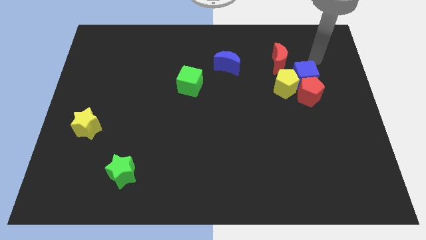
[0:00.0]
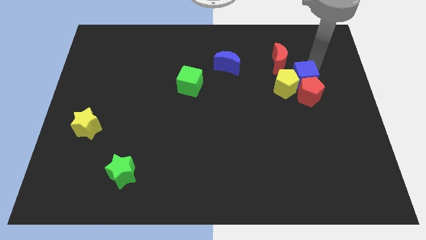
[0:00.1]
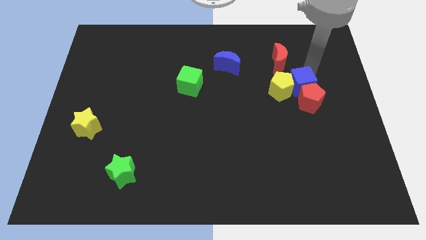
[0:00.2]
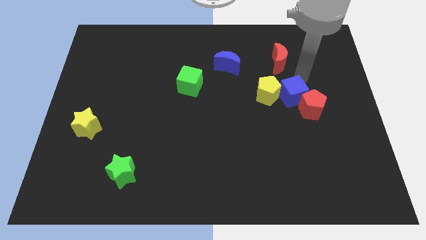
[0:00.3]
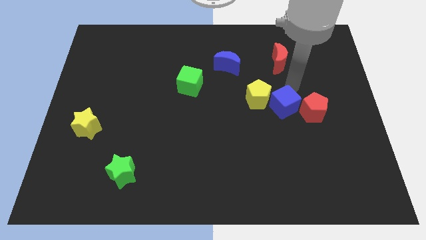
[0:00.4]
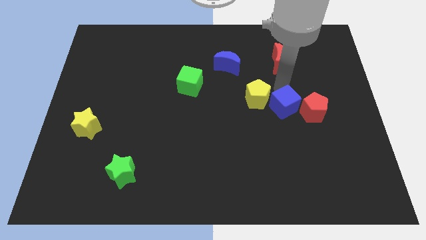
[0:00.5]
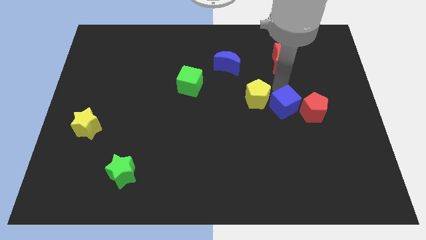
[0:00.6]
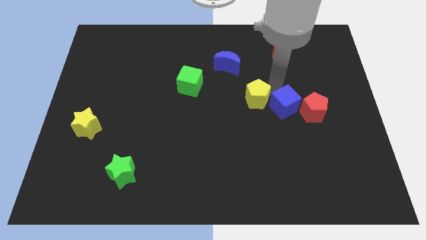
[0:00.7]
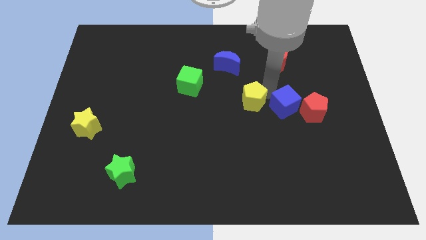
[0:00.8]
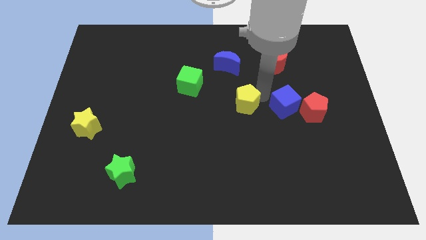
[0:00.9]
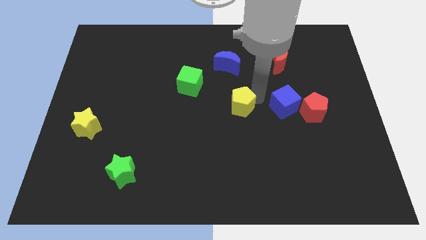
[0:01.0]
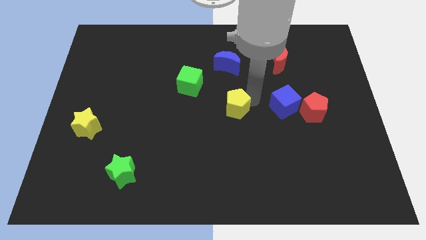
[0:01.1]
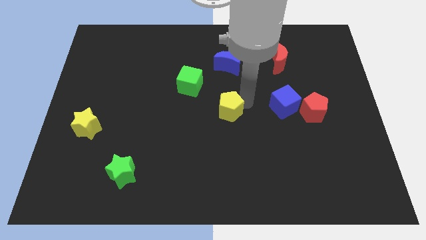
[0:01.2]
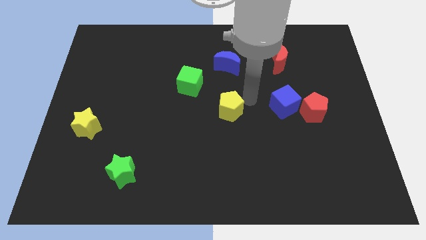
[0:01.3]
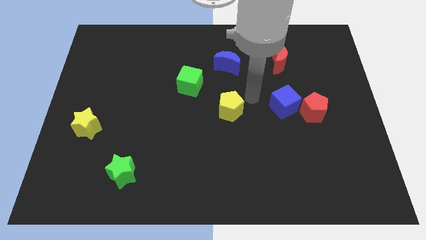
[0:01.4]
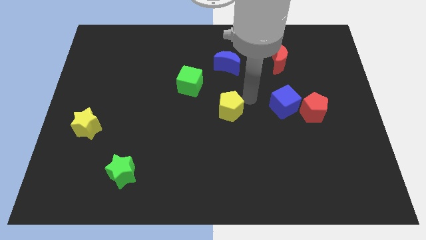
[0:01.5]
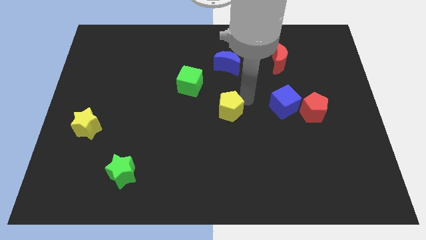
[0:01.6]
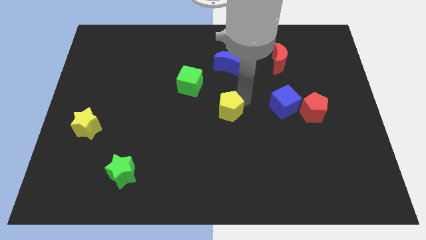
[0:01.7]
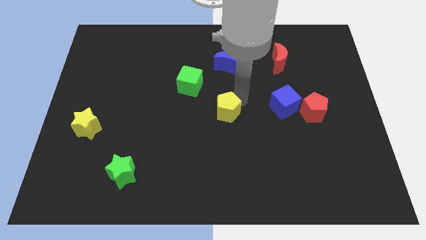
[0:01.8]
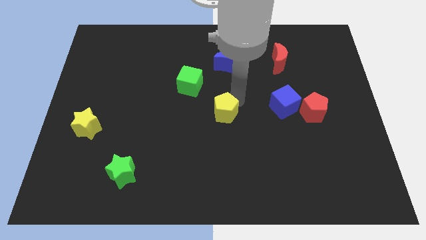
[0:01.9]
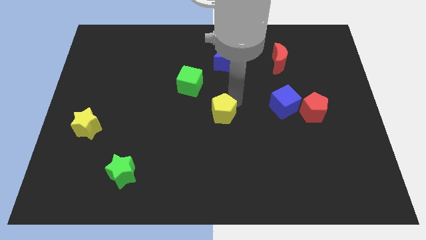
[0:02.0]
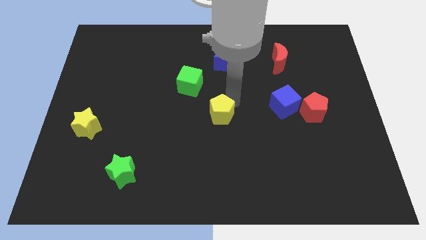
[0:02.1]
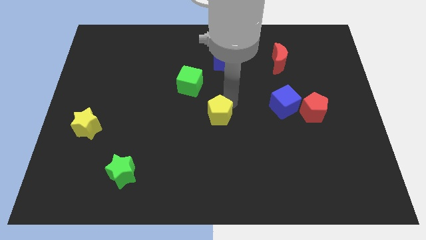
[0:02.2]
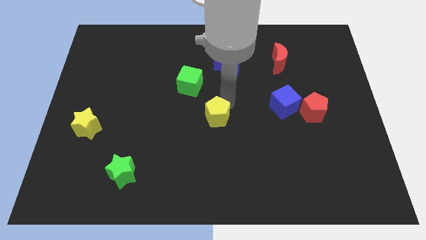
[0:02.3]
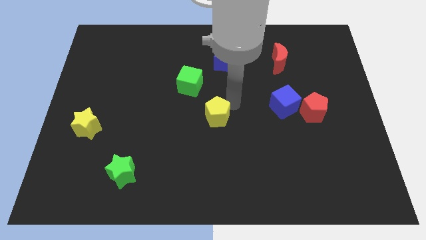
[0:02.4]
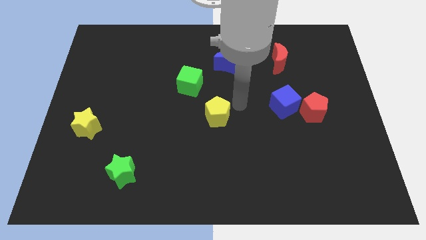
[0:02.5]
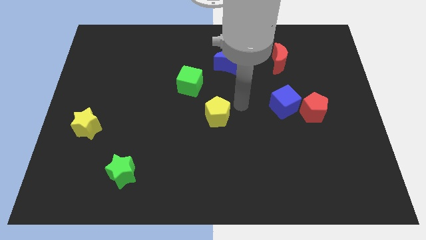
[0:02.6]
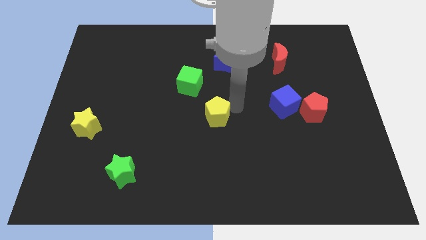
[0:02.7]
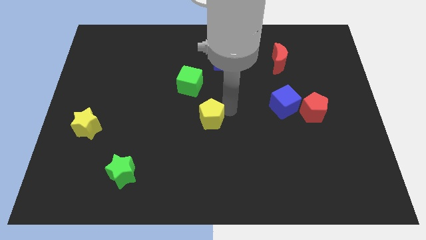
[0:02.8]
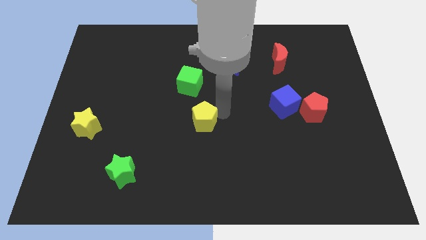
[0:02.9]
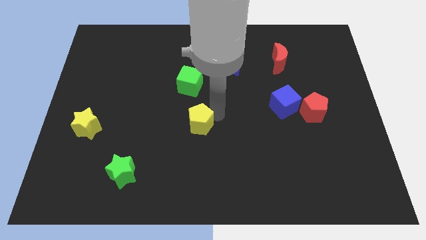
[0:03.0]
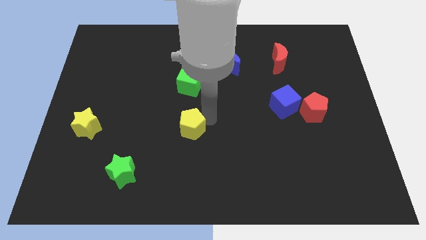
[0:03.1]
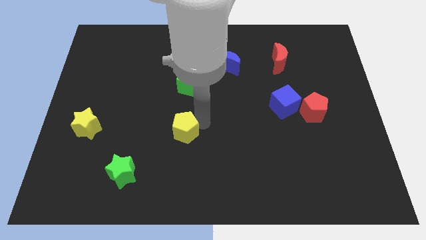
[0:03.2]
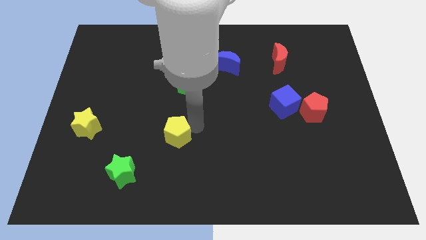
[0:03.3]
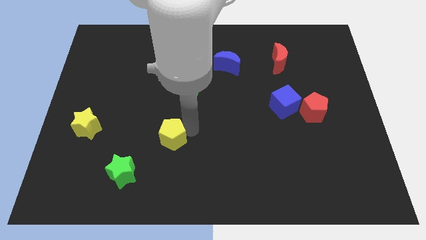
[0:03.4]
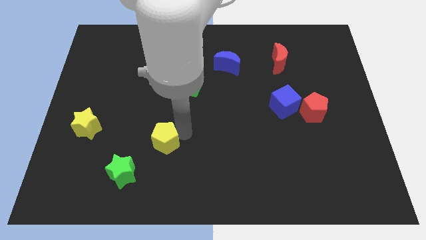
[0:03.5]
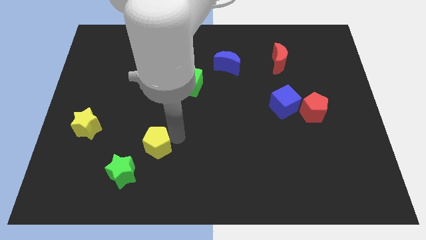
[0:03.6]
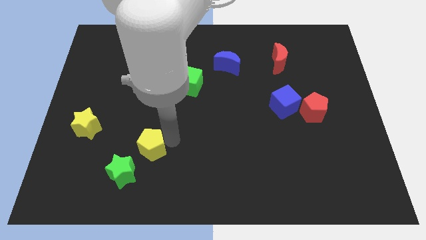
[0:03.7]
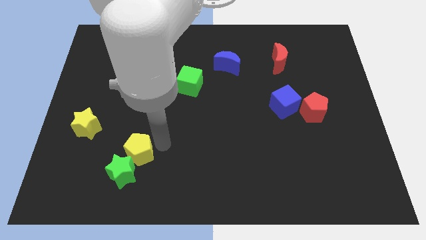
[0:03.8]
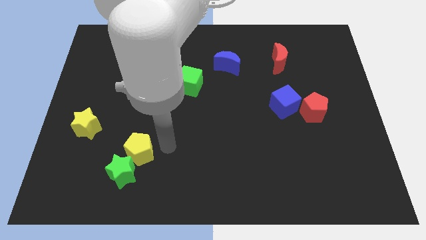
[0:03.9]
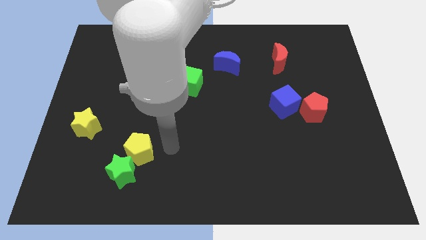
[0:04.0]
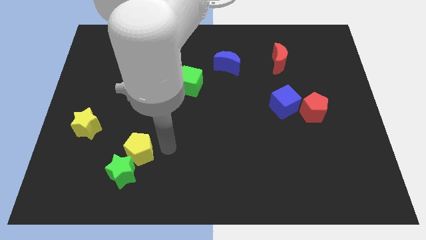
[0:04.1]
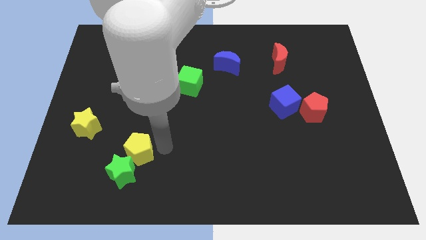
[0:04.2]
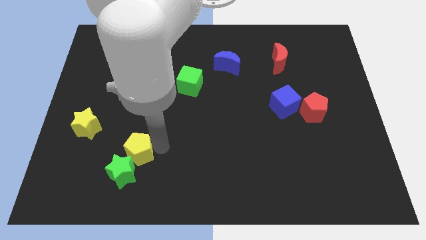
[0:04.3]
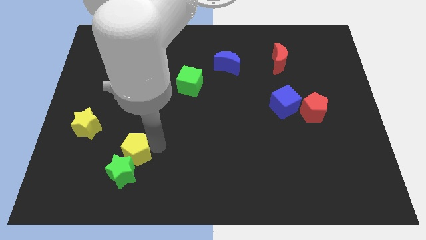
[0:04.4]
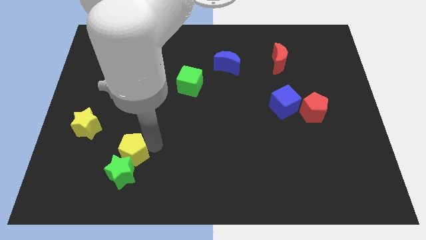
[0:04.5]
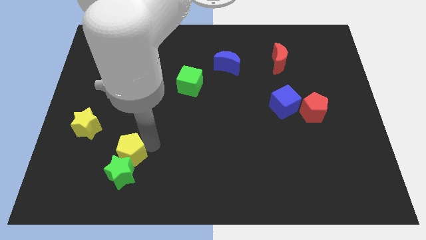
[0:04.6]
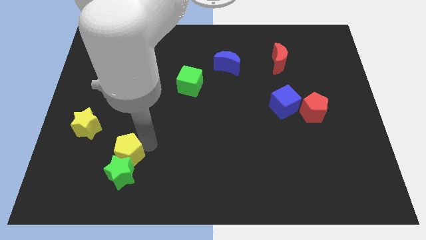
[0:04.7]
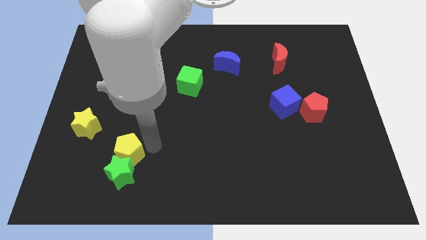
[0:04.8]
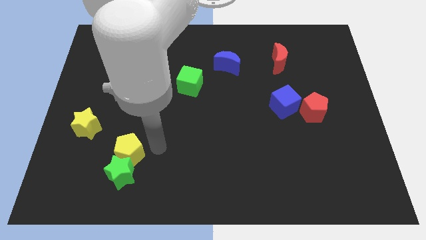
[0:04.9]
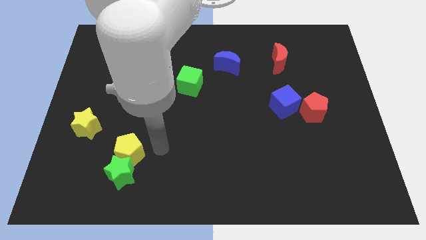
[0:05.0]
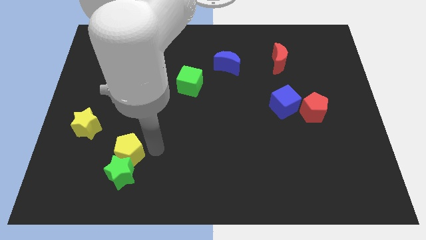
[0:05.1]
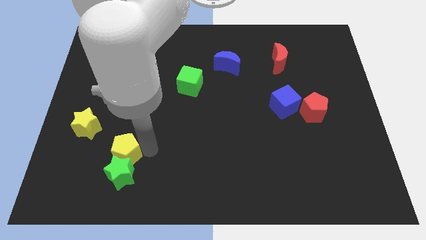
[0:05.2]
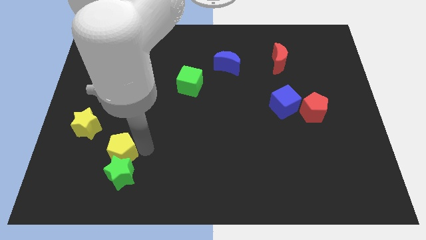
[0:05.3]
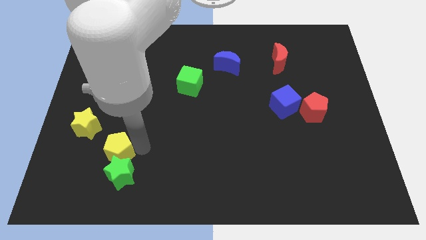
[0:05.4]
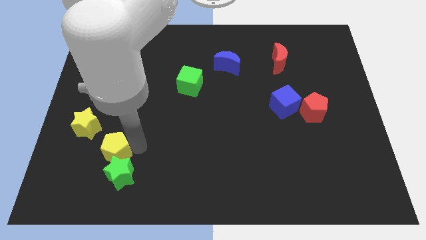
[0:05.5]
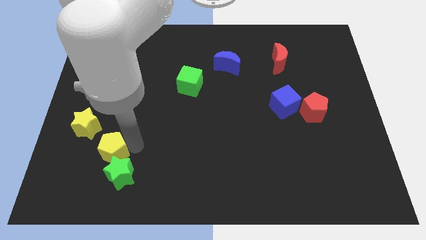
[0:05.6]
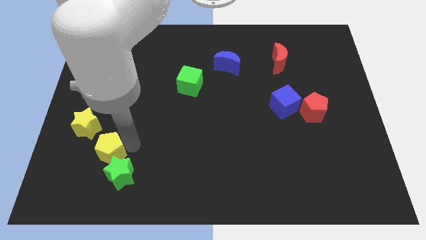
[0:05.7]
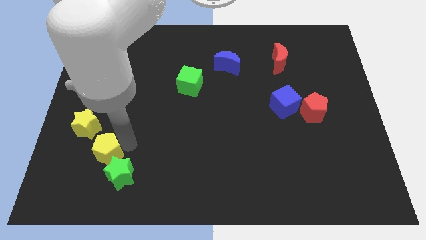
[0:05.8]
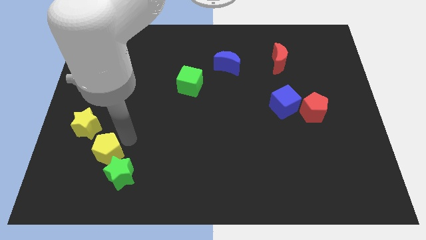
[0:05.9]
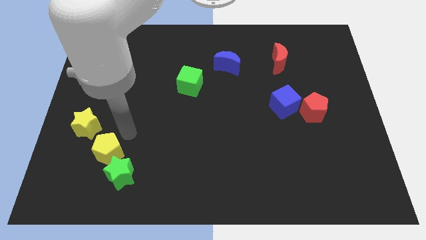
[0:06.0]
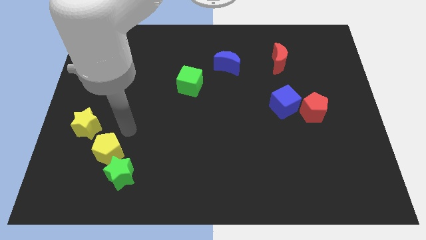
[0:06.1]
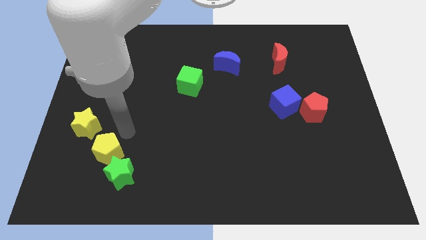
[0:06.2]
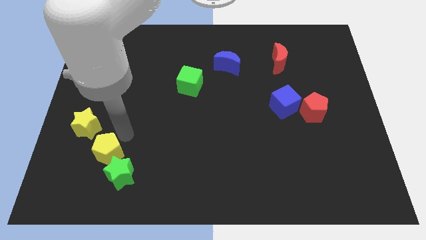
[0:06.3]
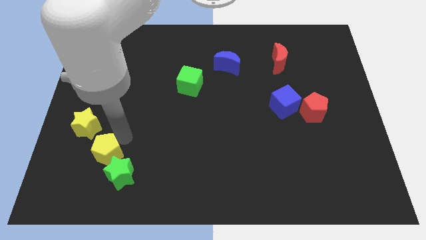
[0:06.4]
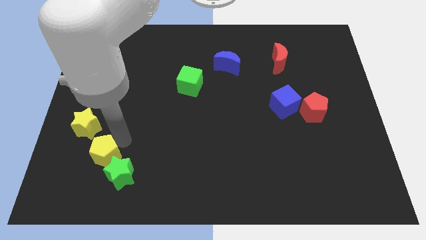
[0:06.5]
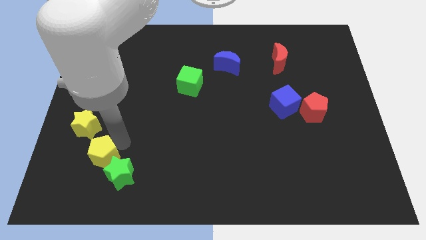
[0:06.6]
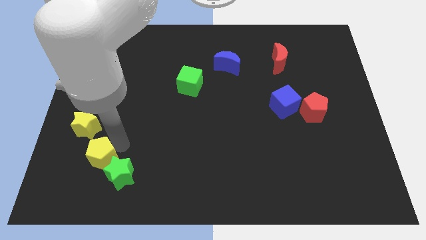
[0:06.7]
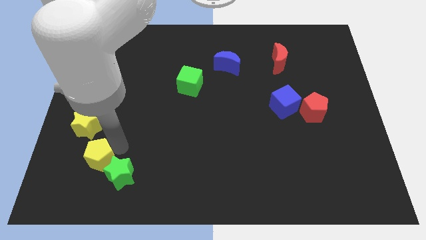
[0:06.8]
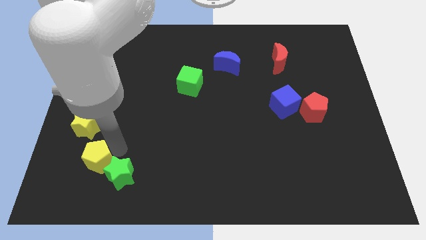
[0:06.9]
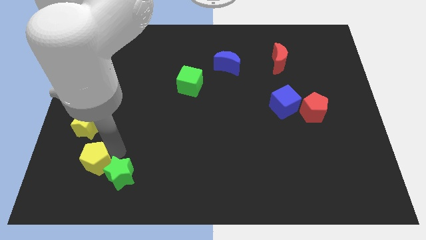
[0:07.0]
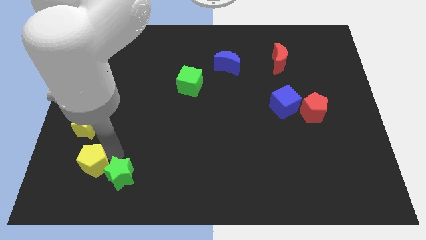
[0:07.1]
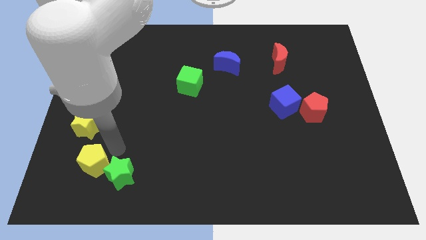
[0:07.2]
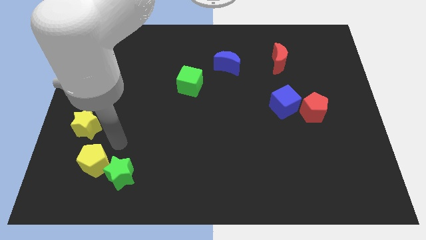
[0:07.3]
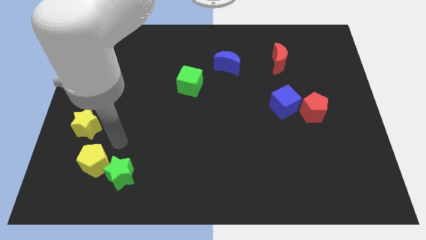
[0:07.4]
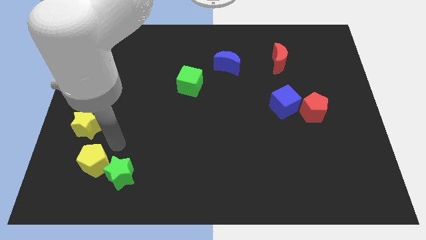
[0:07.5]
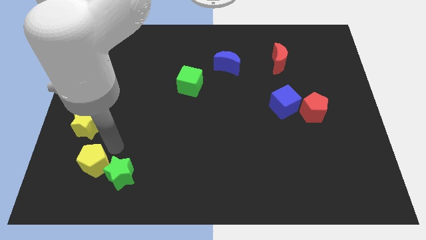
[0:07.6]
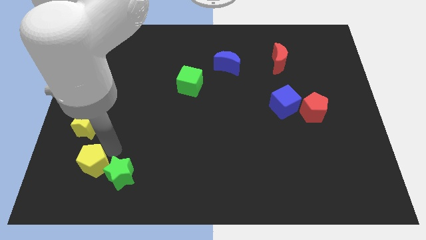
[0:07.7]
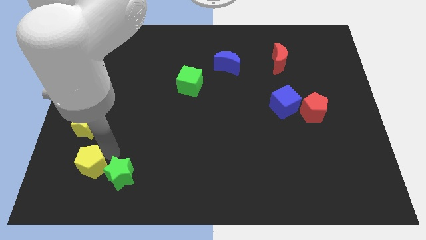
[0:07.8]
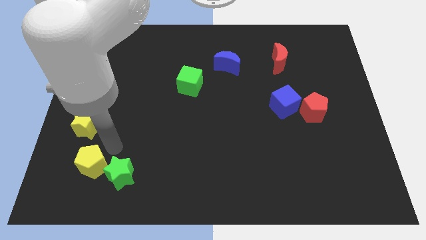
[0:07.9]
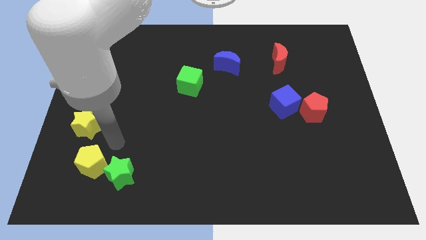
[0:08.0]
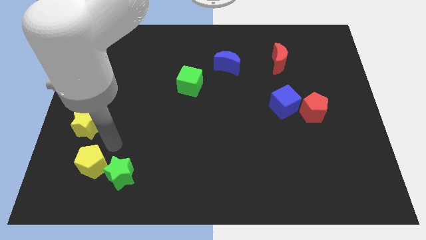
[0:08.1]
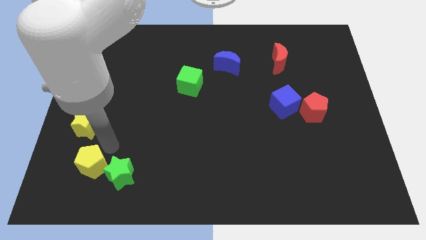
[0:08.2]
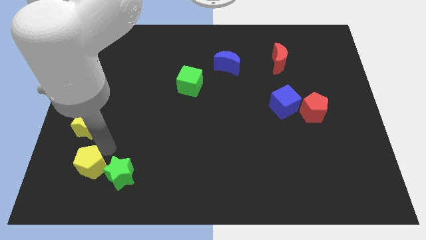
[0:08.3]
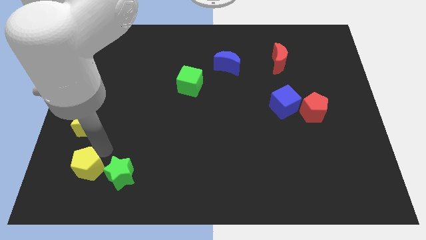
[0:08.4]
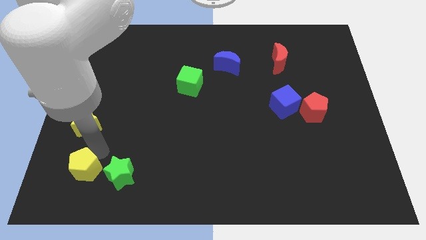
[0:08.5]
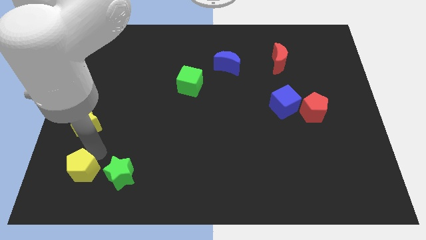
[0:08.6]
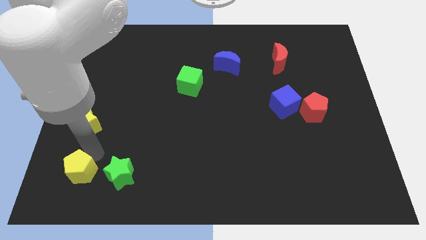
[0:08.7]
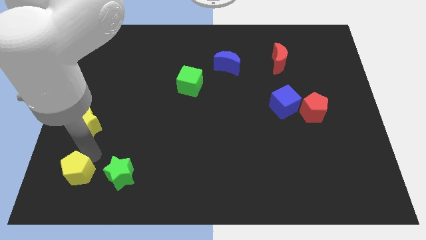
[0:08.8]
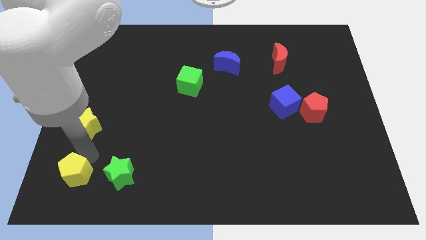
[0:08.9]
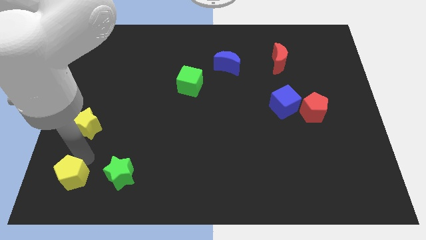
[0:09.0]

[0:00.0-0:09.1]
slide the yellow pentagon to the bottom left of the board
